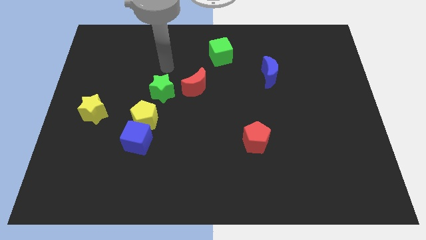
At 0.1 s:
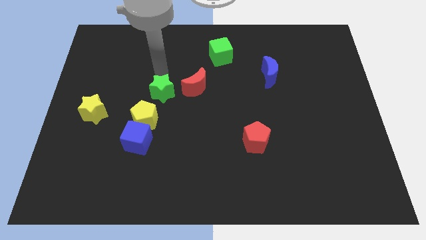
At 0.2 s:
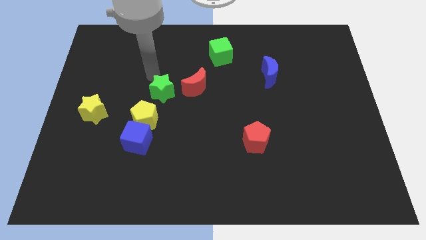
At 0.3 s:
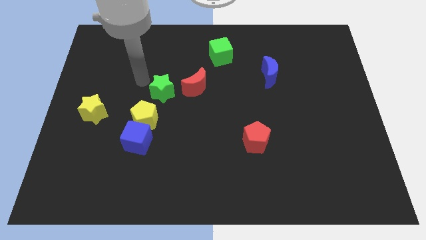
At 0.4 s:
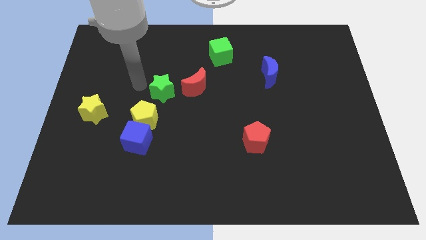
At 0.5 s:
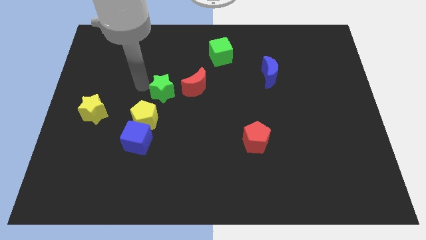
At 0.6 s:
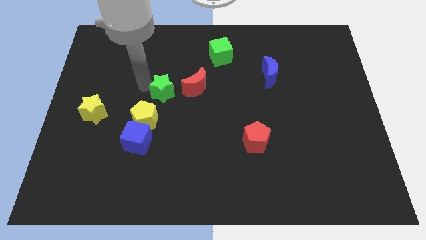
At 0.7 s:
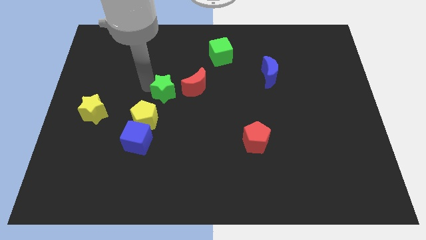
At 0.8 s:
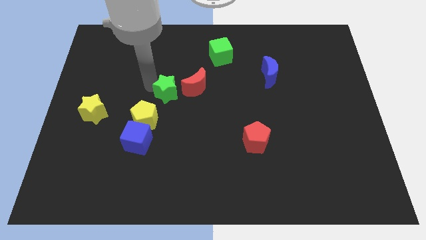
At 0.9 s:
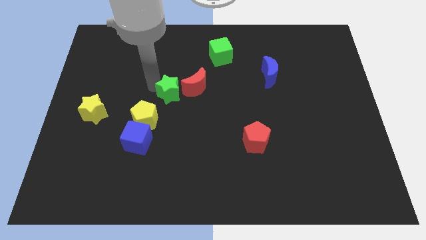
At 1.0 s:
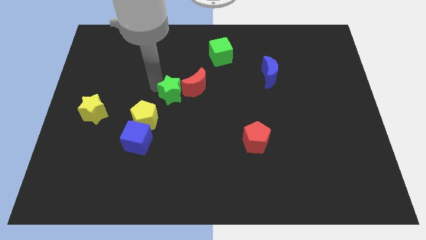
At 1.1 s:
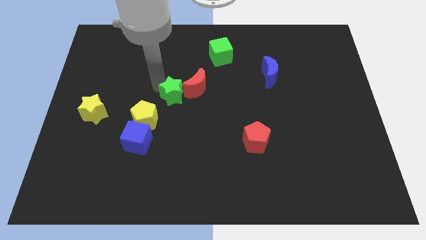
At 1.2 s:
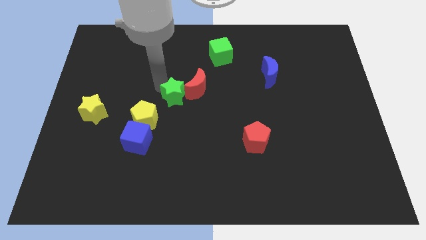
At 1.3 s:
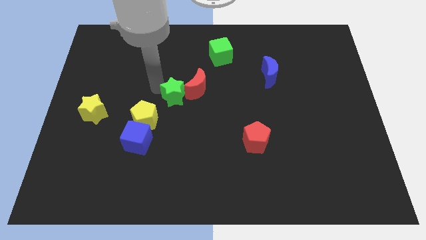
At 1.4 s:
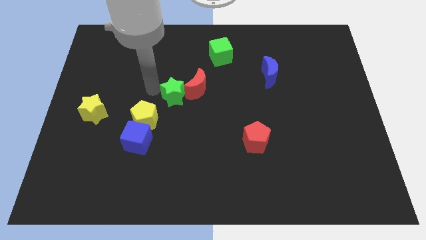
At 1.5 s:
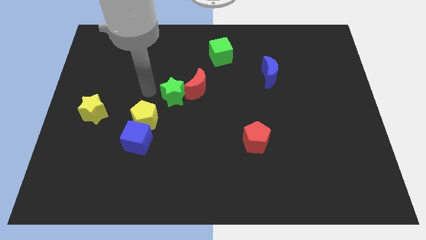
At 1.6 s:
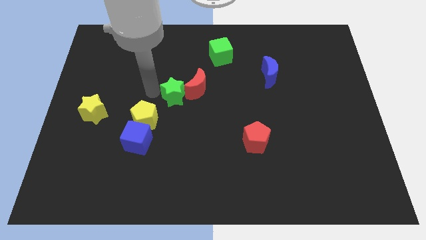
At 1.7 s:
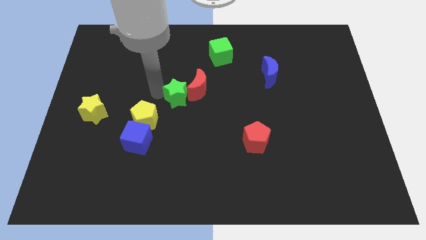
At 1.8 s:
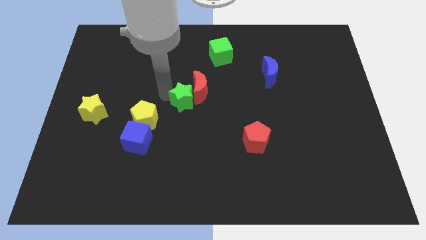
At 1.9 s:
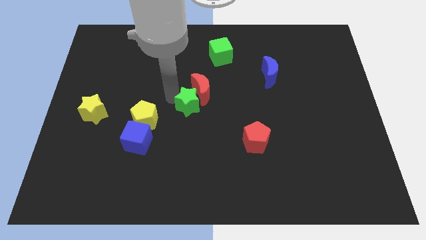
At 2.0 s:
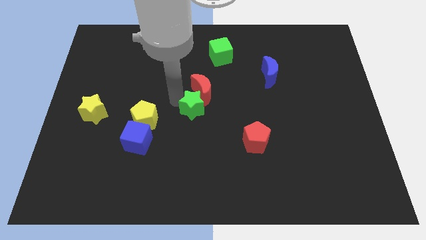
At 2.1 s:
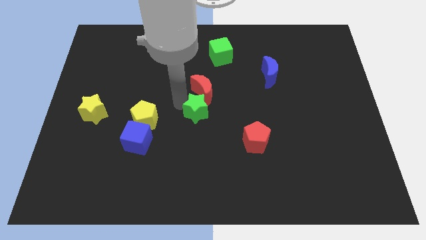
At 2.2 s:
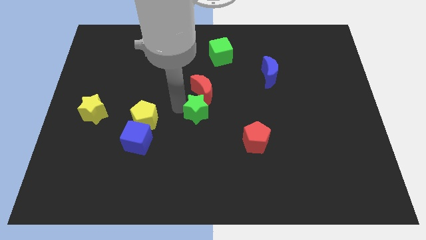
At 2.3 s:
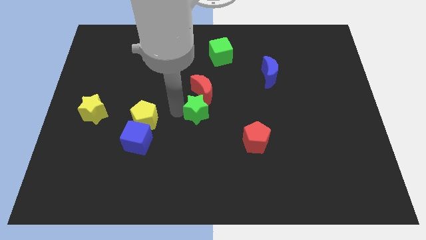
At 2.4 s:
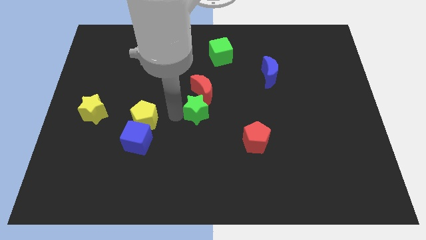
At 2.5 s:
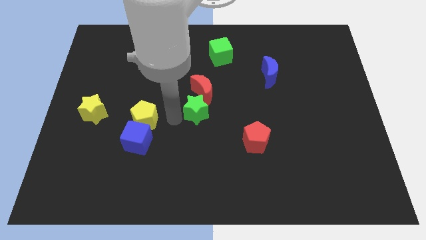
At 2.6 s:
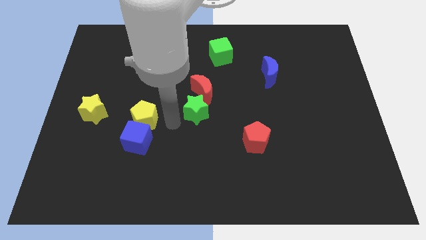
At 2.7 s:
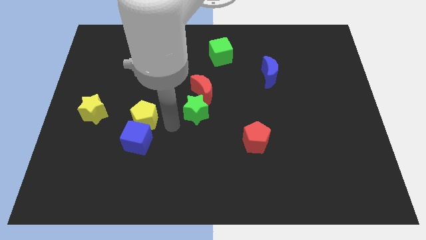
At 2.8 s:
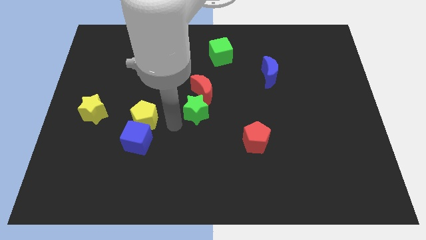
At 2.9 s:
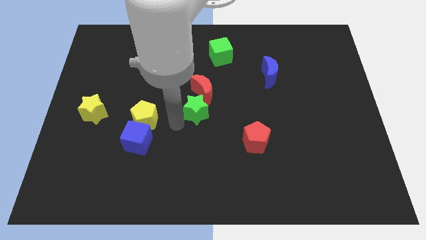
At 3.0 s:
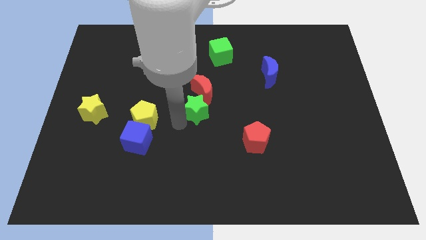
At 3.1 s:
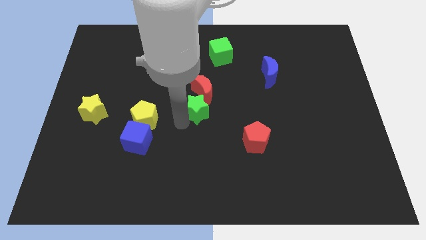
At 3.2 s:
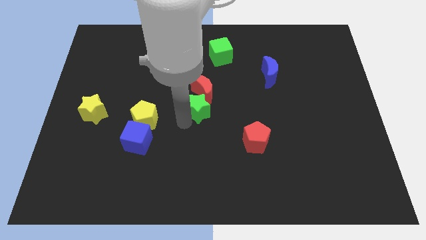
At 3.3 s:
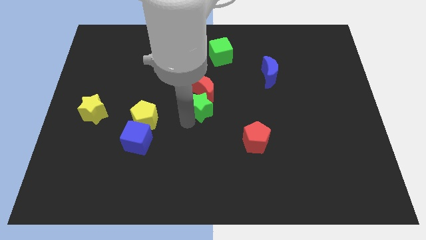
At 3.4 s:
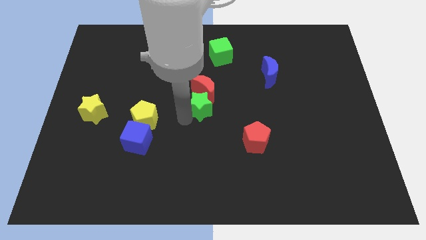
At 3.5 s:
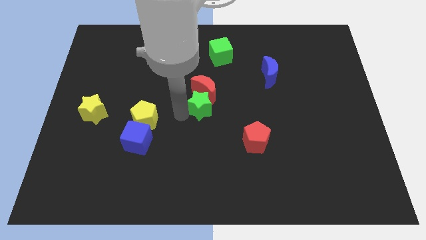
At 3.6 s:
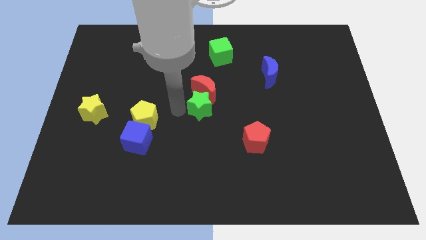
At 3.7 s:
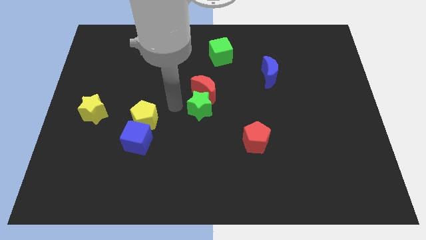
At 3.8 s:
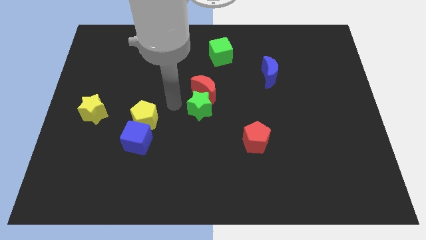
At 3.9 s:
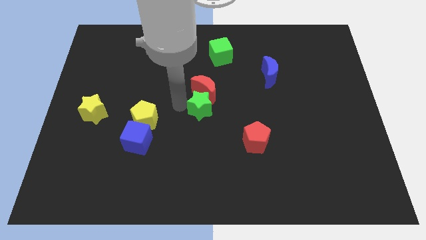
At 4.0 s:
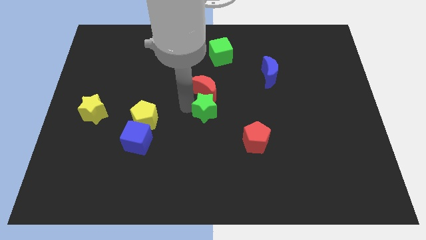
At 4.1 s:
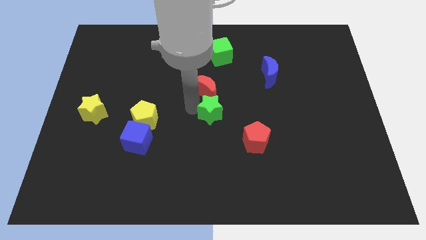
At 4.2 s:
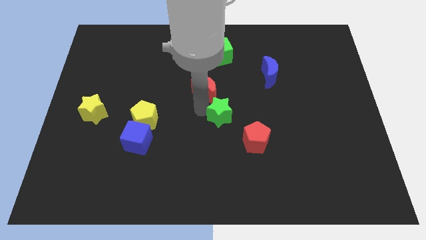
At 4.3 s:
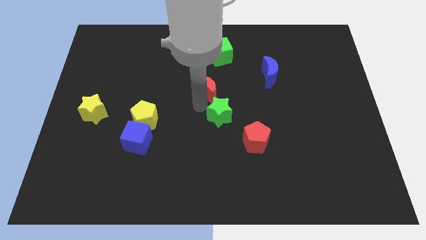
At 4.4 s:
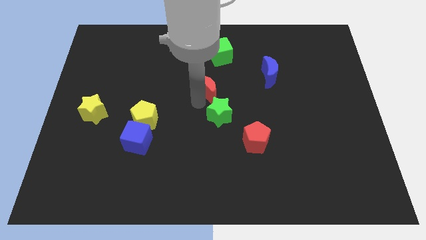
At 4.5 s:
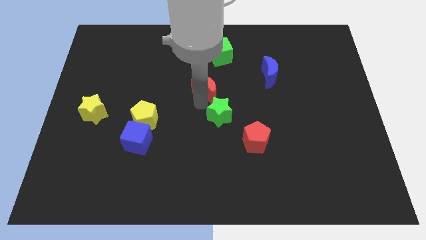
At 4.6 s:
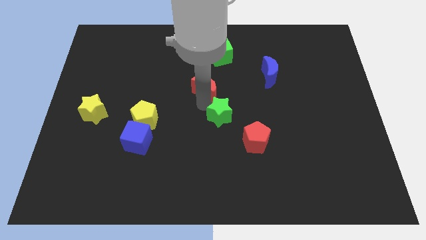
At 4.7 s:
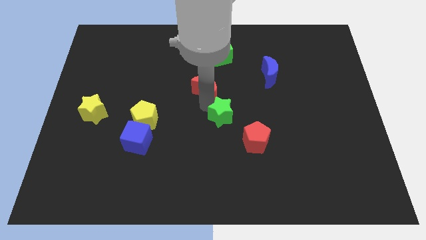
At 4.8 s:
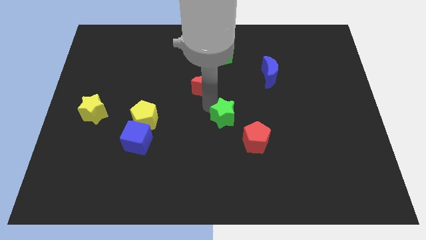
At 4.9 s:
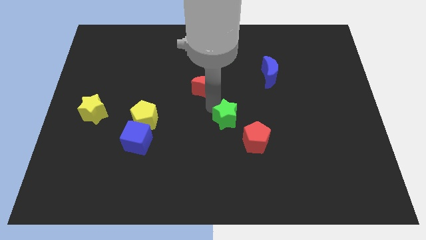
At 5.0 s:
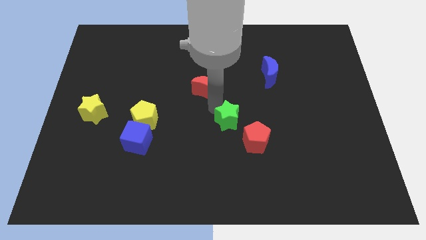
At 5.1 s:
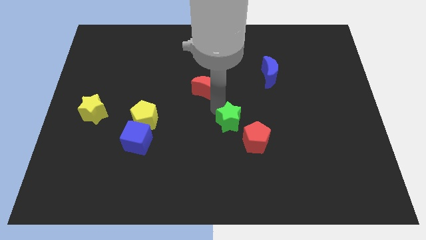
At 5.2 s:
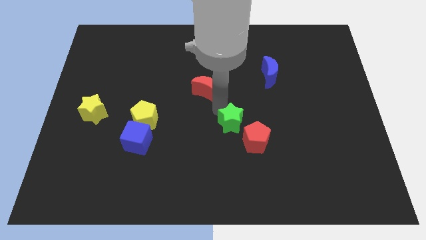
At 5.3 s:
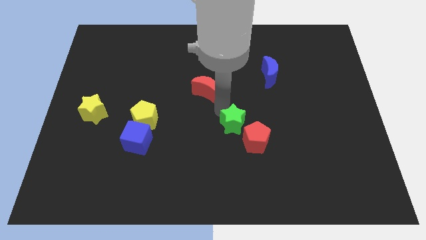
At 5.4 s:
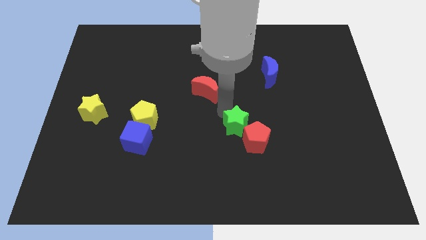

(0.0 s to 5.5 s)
move the green star to the red pentagon

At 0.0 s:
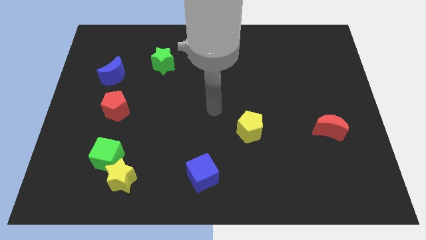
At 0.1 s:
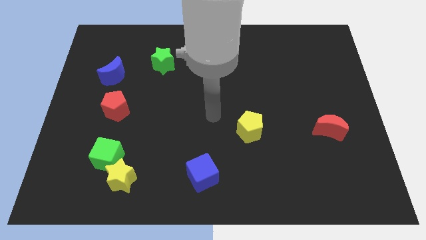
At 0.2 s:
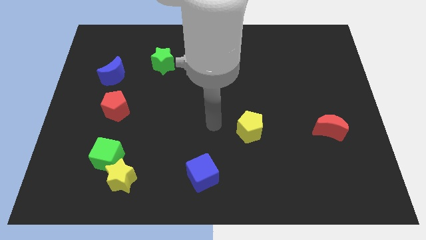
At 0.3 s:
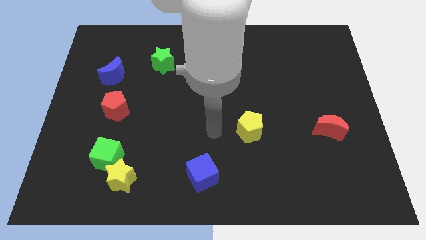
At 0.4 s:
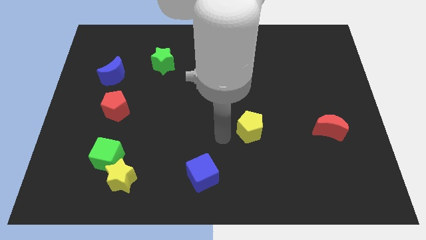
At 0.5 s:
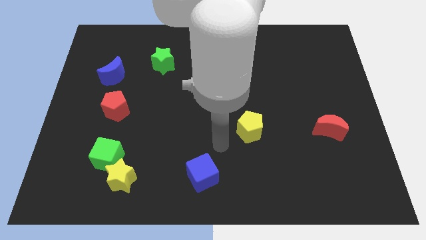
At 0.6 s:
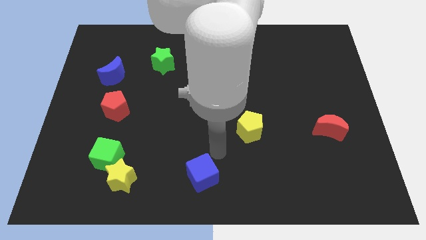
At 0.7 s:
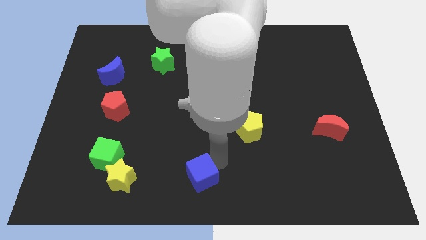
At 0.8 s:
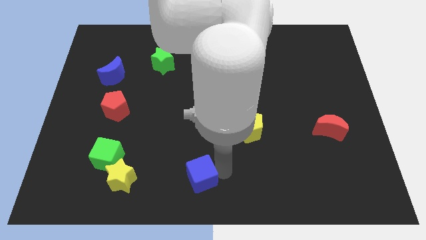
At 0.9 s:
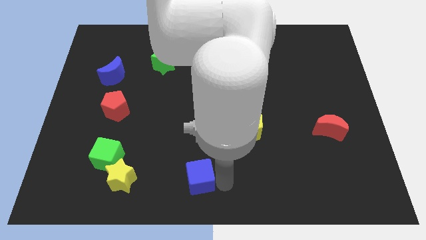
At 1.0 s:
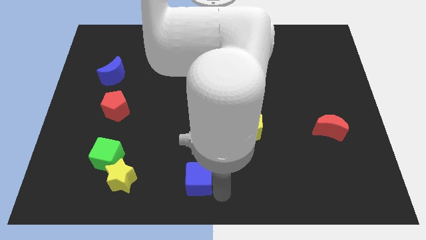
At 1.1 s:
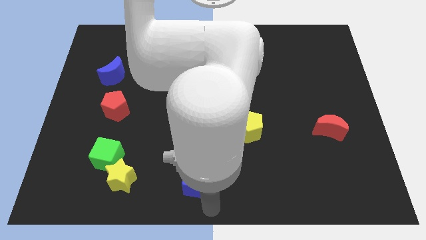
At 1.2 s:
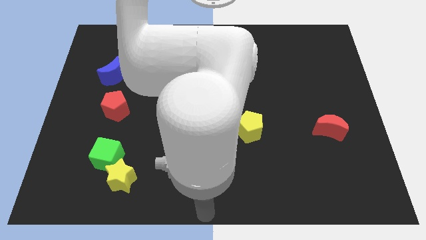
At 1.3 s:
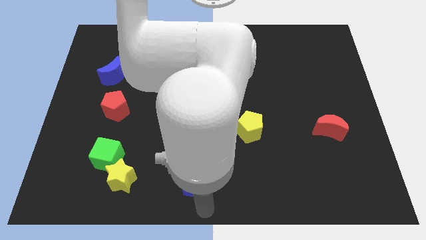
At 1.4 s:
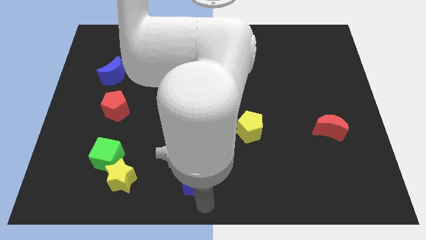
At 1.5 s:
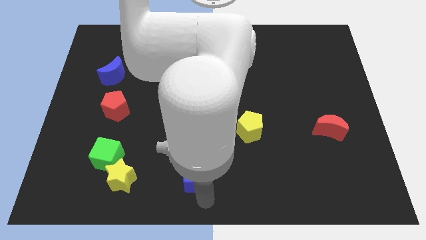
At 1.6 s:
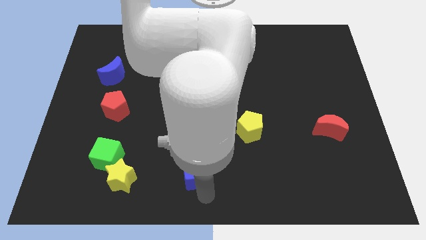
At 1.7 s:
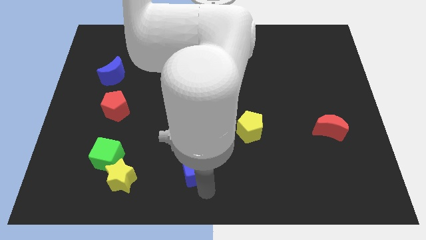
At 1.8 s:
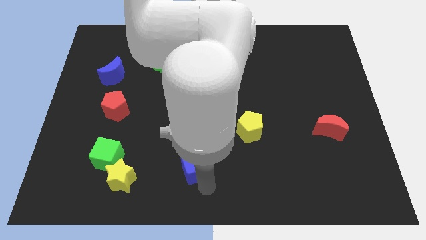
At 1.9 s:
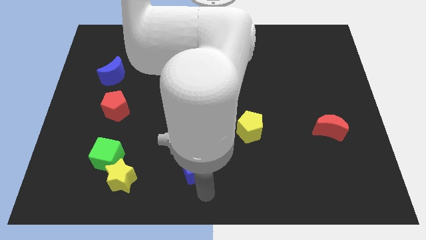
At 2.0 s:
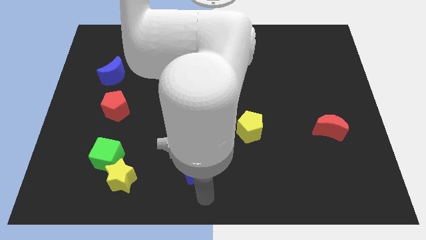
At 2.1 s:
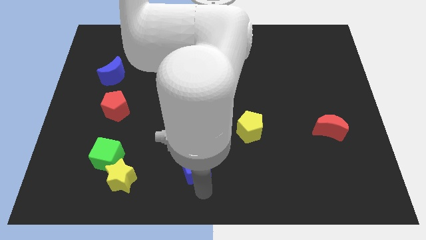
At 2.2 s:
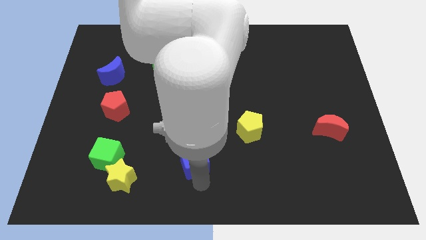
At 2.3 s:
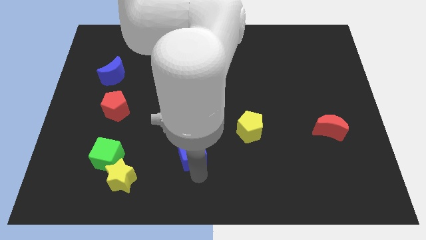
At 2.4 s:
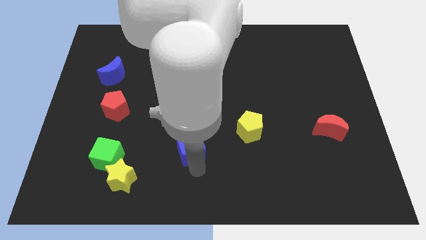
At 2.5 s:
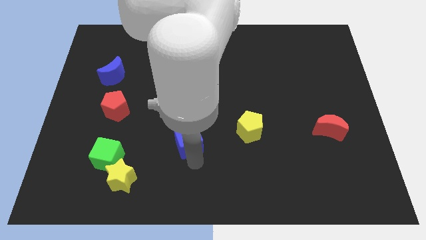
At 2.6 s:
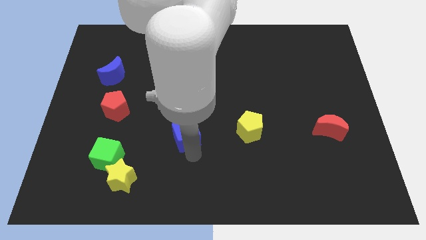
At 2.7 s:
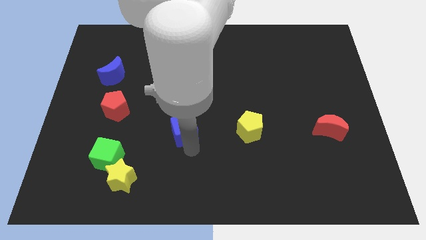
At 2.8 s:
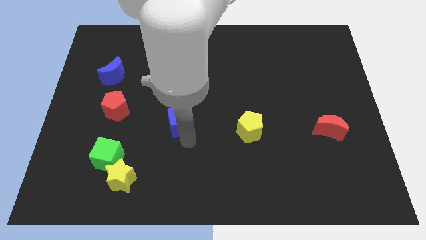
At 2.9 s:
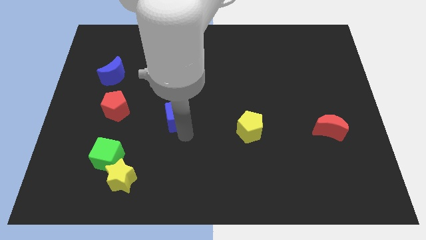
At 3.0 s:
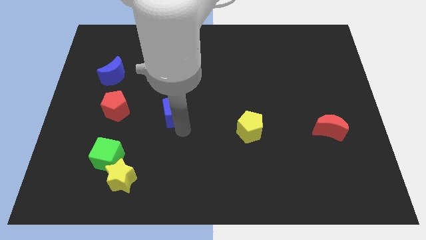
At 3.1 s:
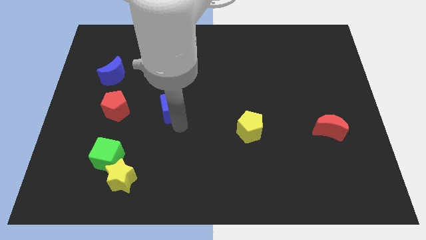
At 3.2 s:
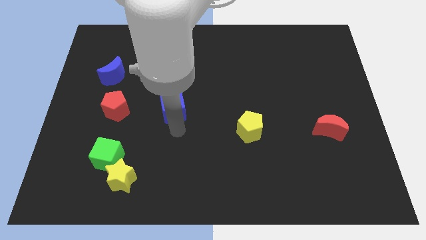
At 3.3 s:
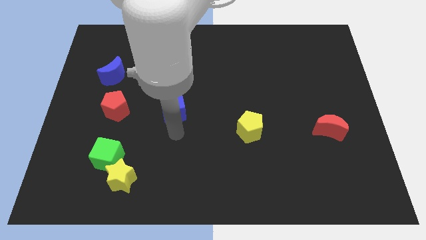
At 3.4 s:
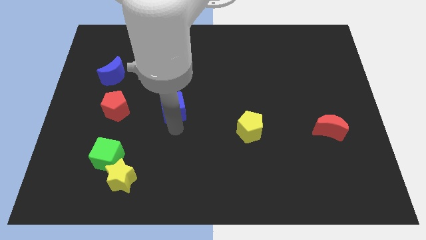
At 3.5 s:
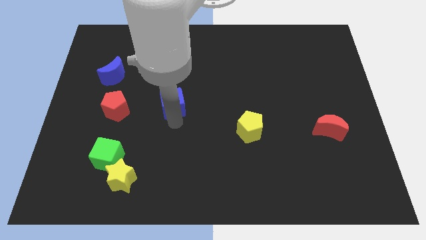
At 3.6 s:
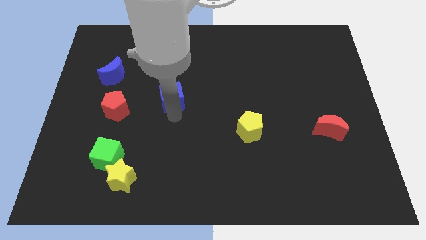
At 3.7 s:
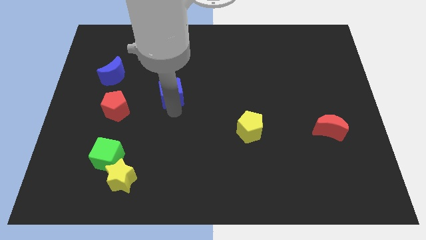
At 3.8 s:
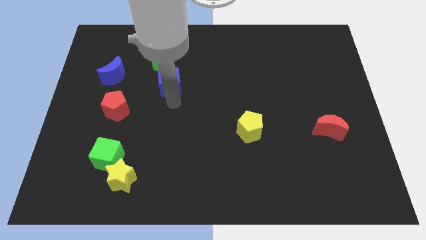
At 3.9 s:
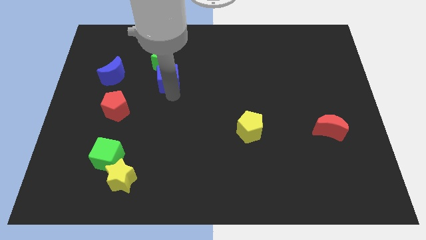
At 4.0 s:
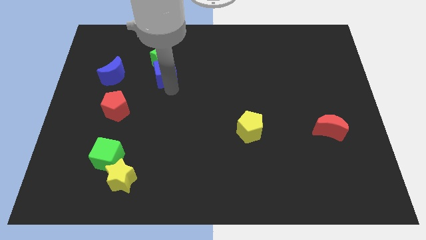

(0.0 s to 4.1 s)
put the blue cube towards the green star
